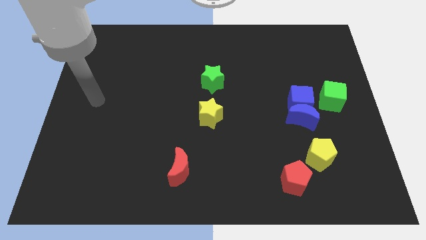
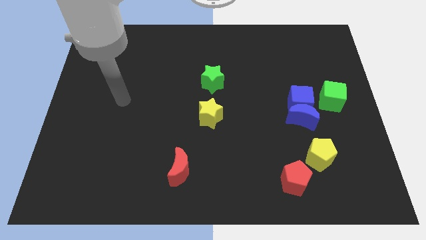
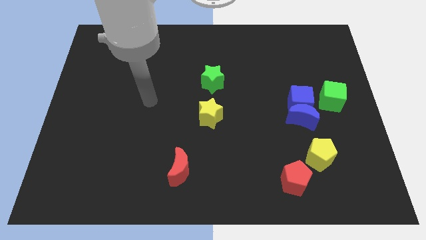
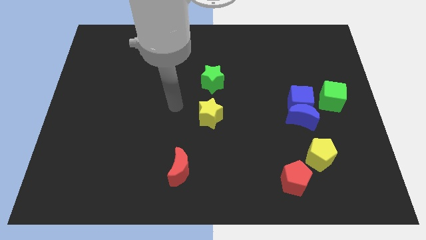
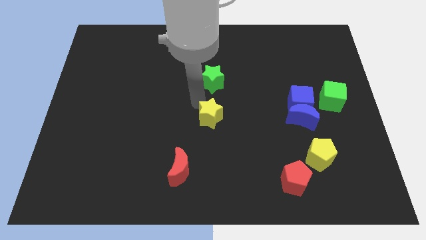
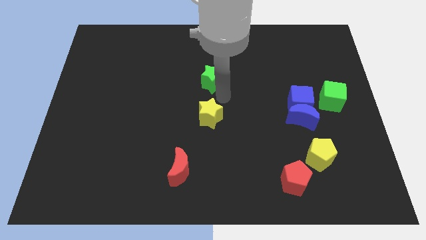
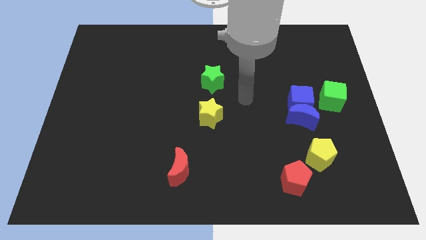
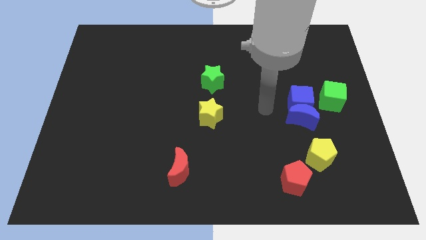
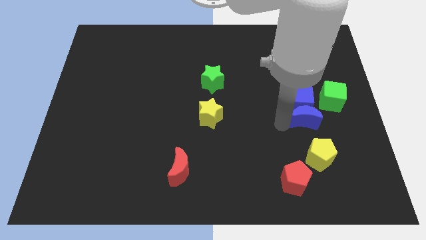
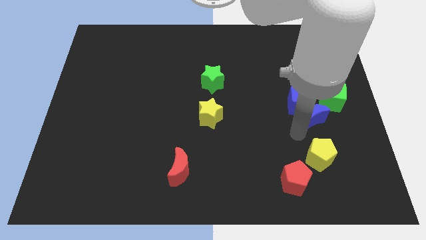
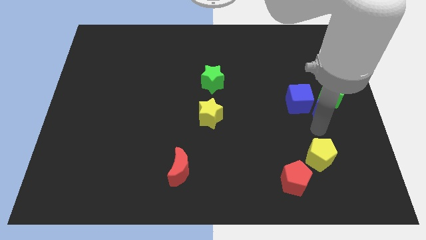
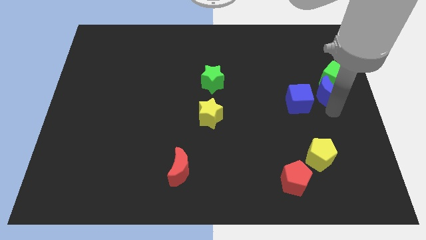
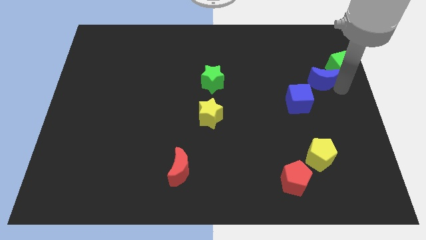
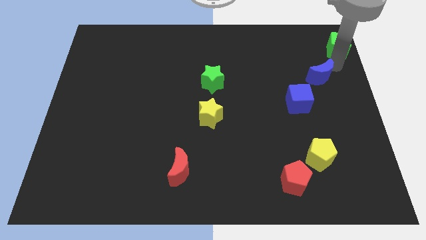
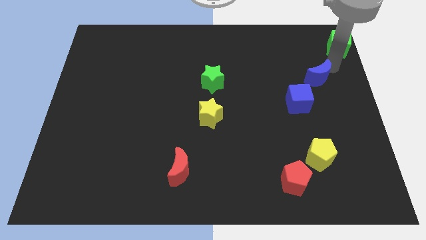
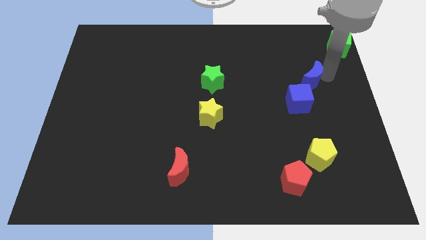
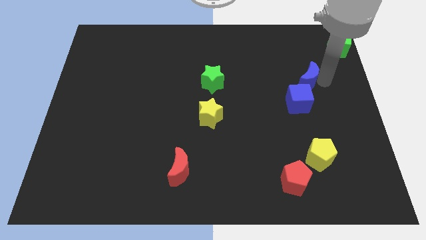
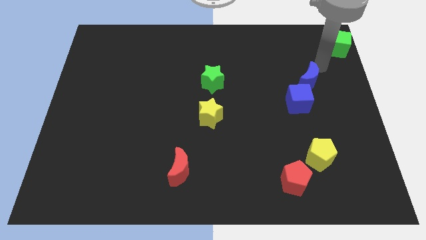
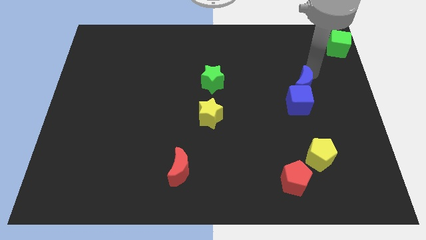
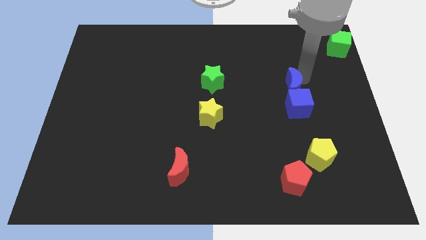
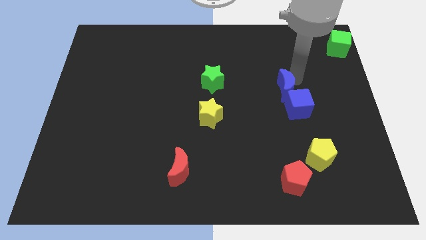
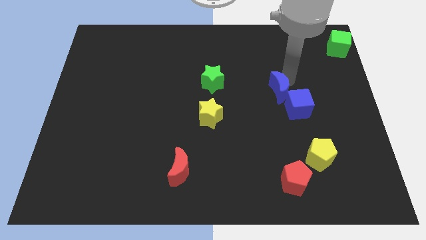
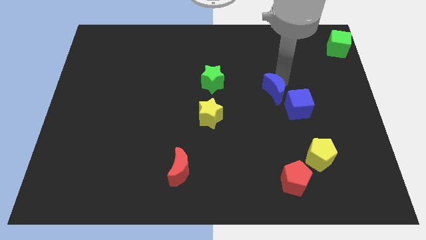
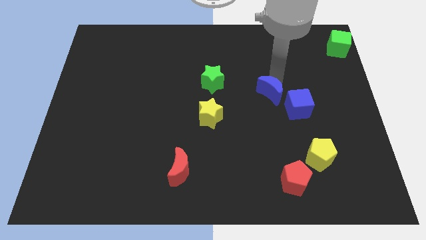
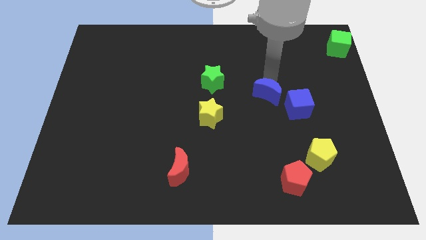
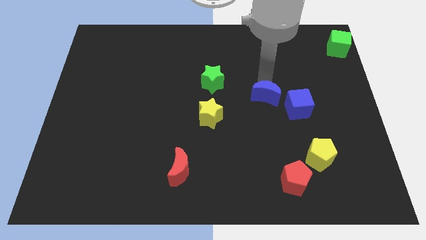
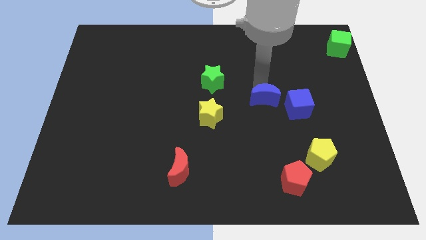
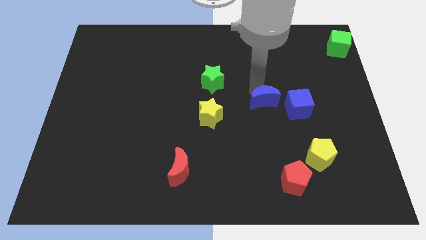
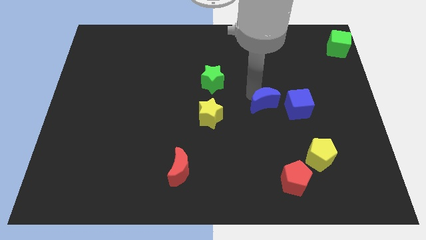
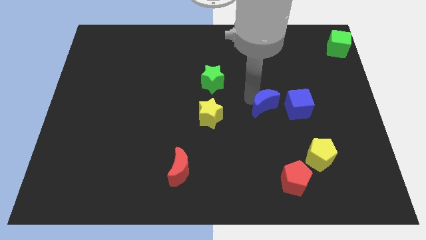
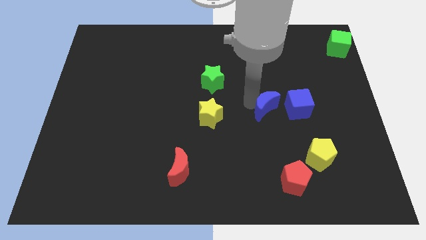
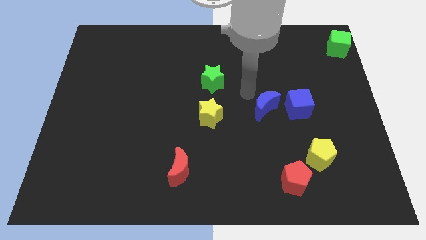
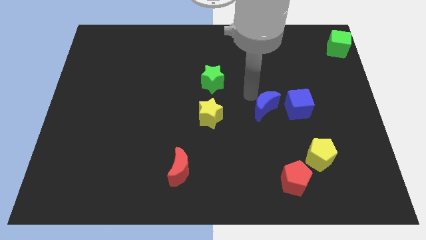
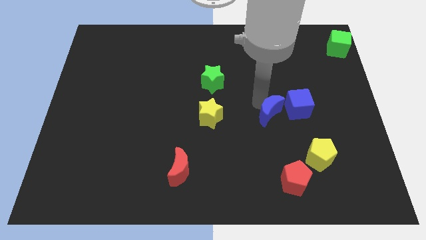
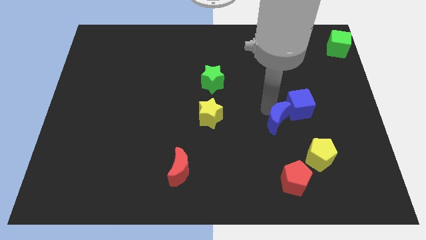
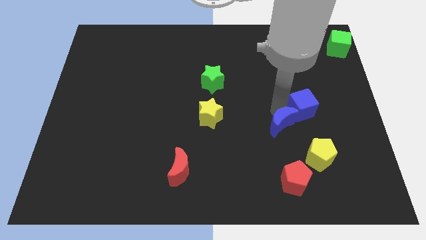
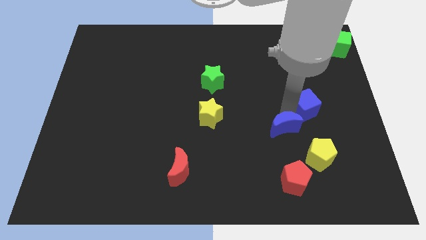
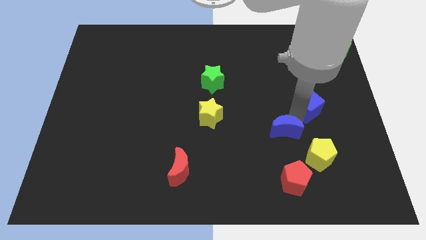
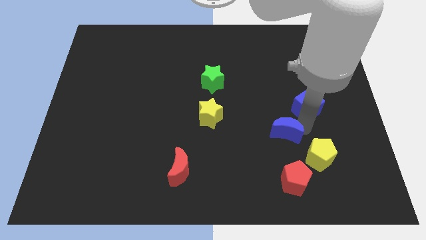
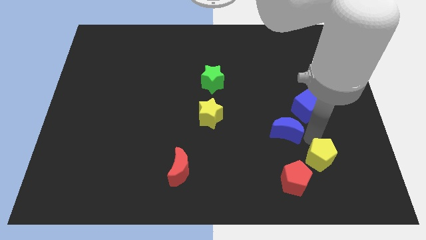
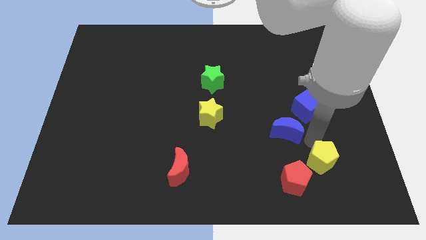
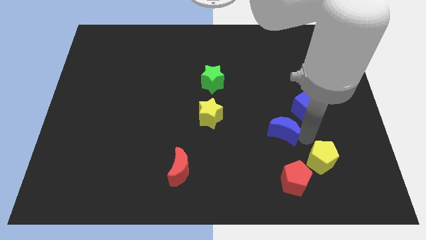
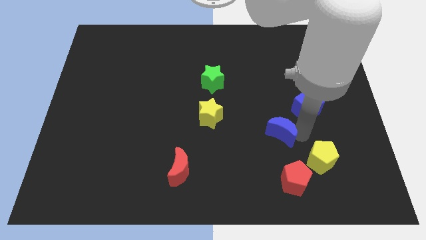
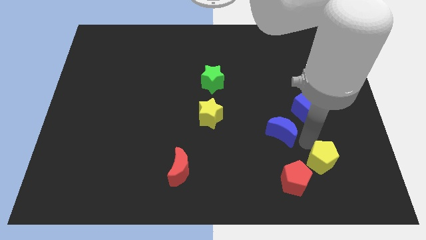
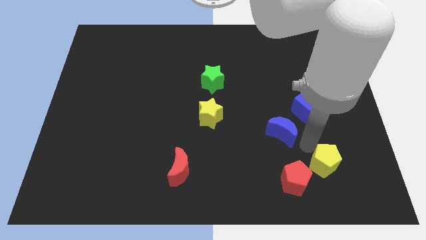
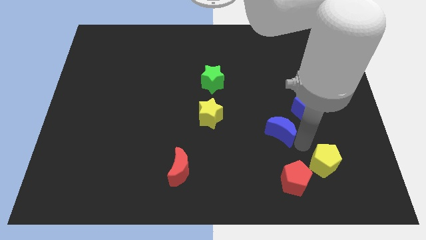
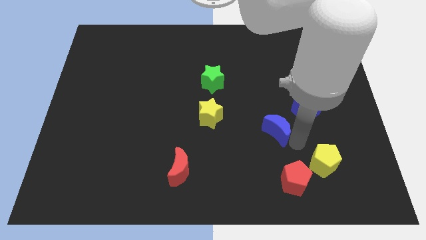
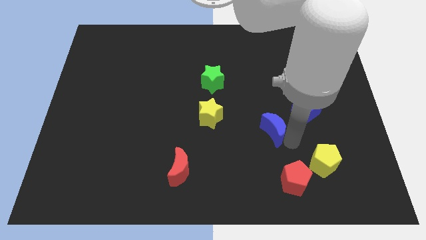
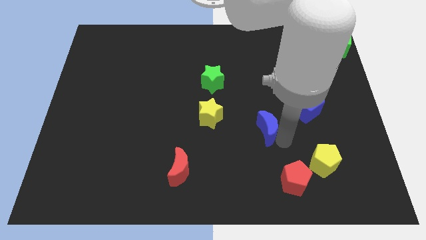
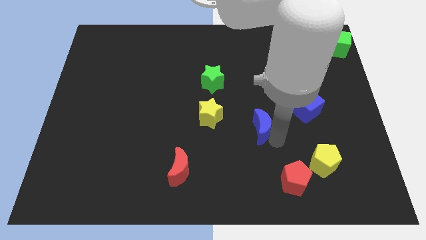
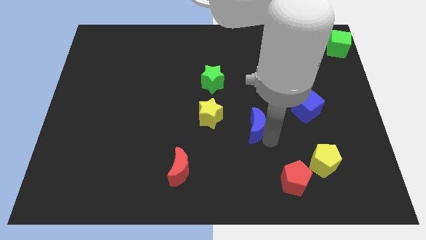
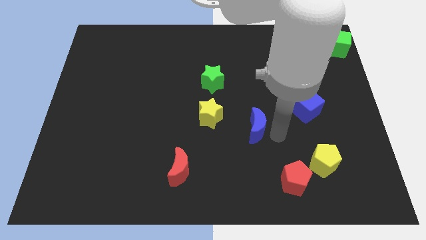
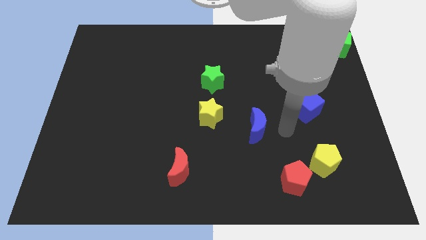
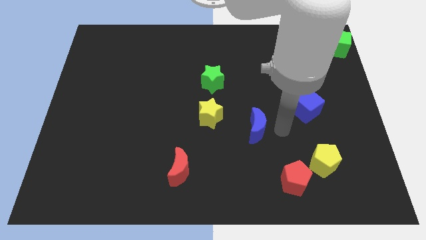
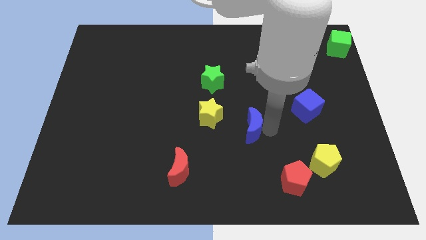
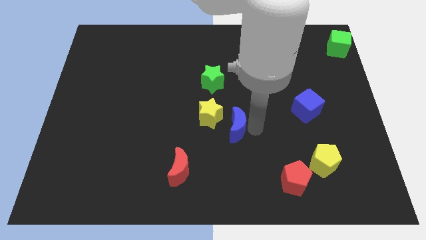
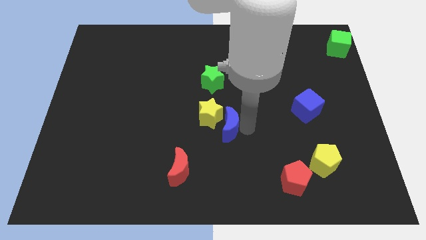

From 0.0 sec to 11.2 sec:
slide the blue moon to the bottom of the green star

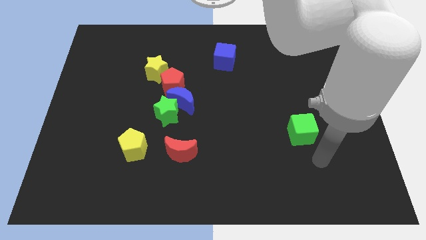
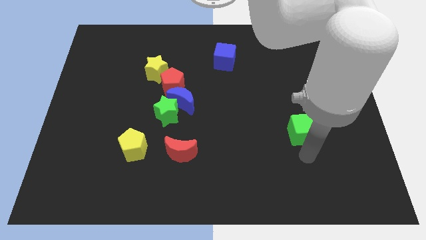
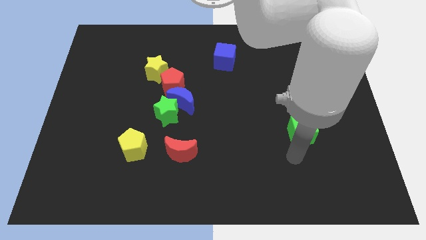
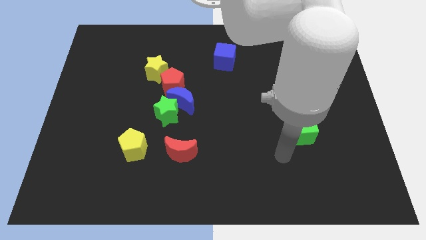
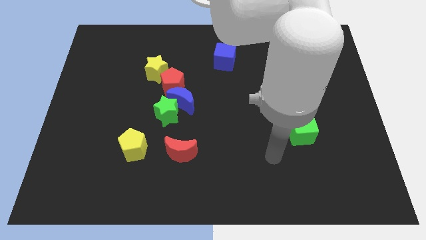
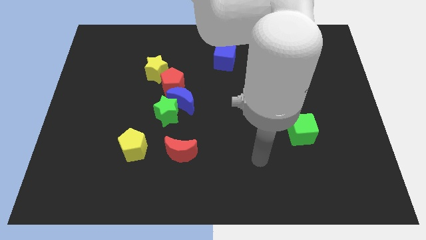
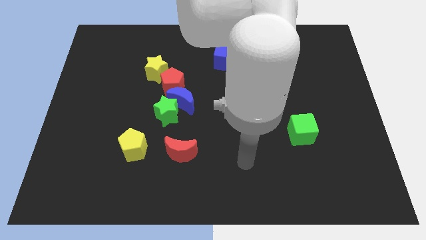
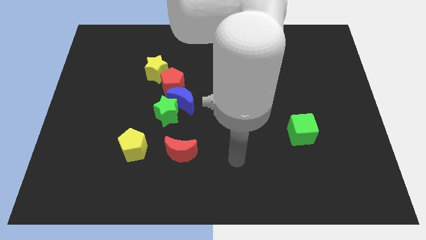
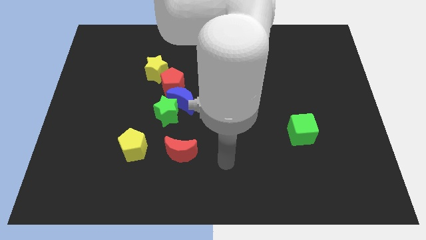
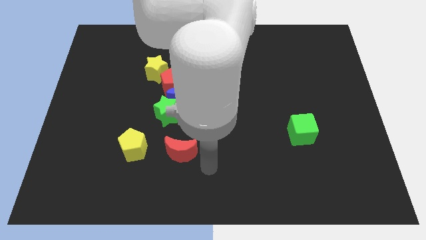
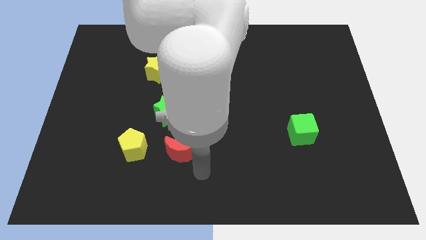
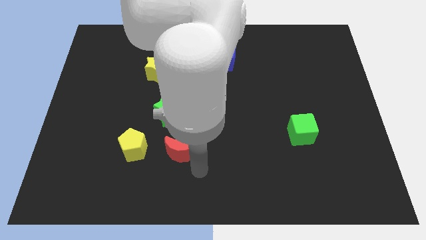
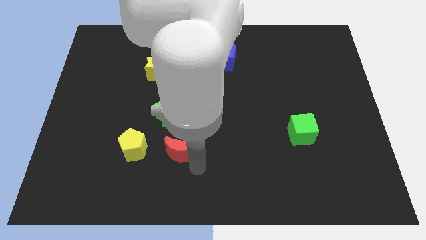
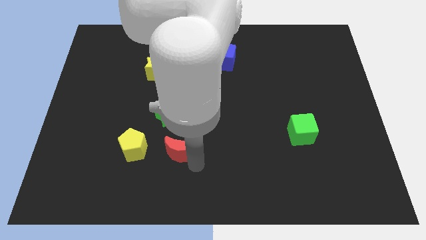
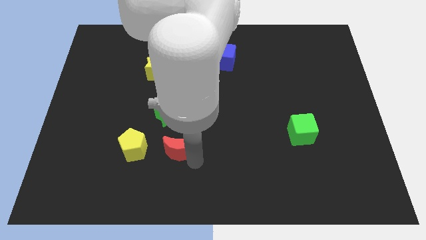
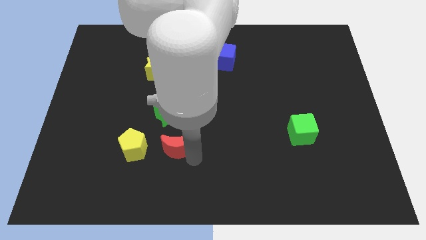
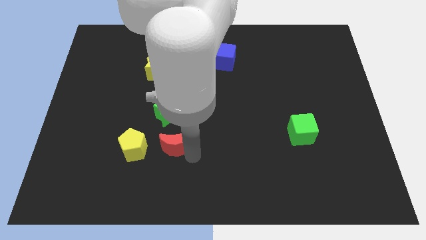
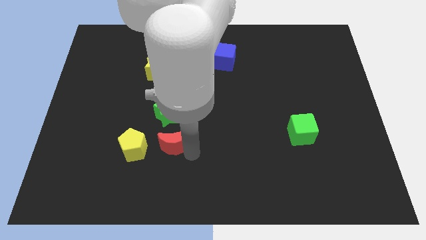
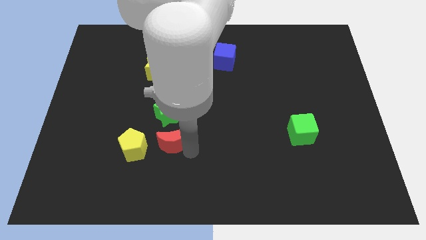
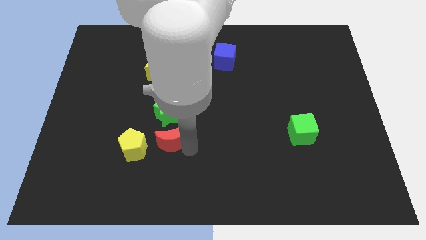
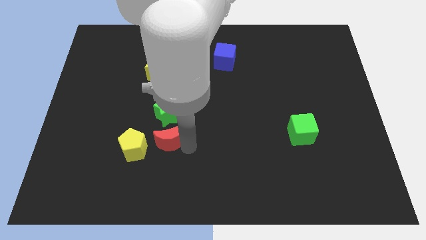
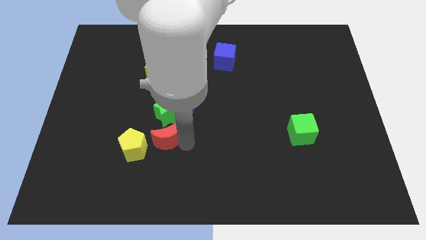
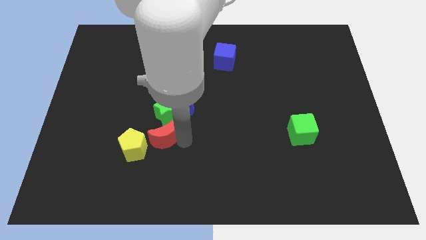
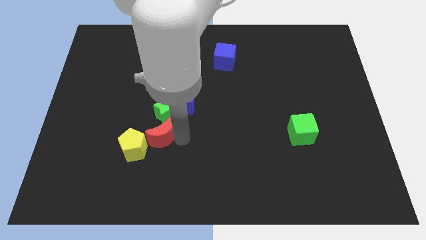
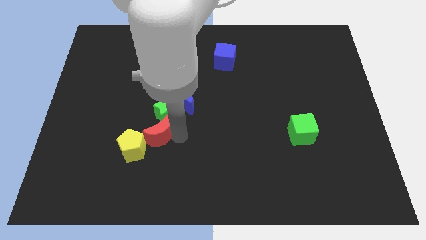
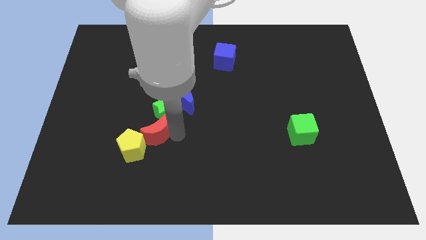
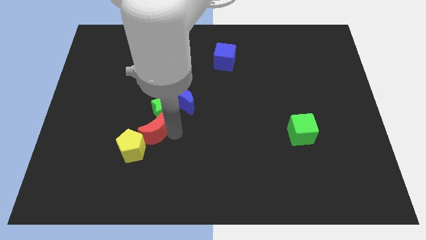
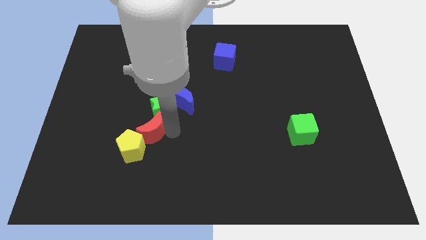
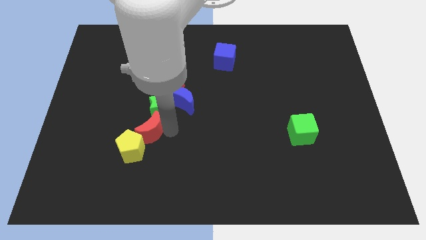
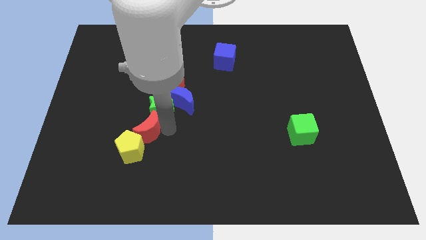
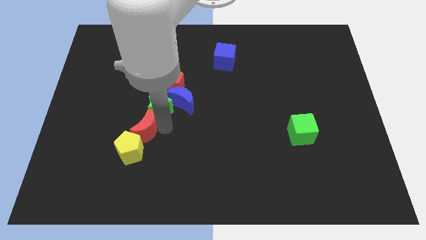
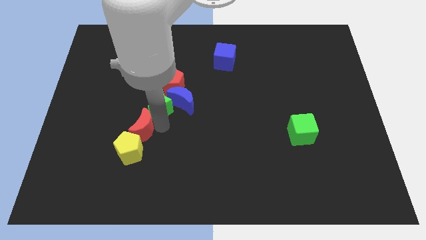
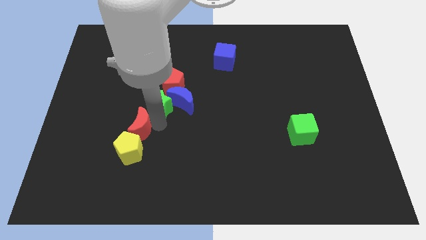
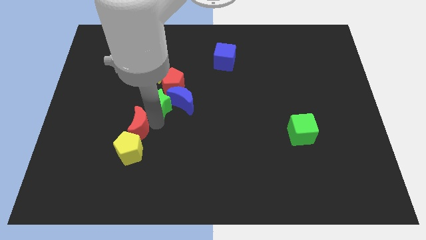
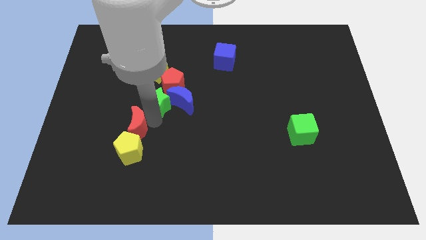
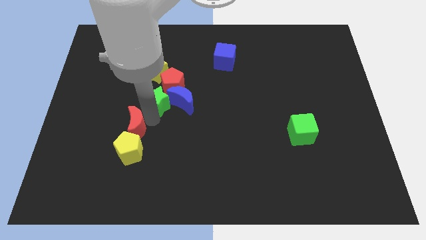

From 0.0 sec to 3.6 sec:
move the red moon to the top left of the yellow pentagon
